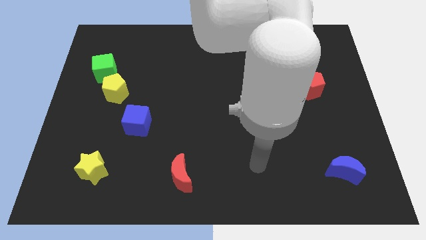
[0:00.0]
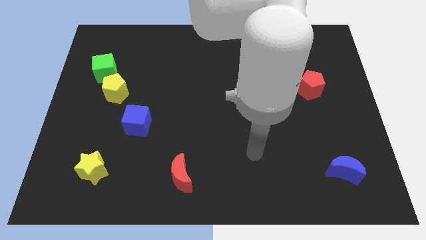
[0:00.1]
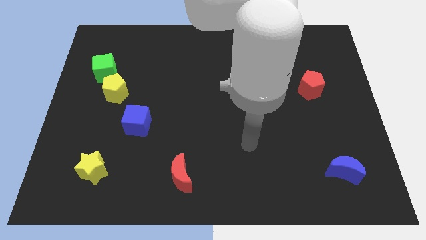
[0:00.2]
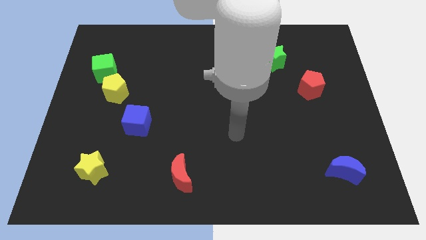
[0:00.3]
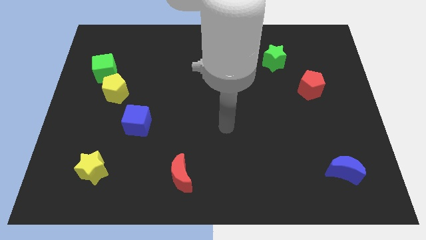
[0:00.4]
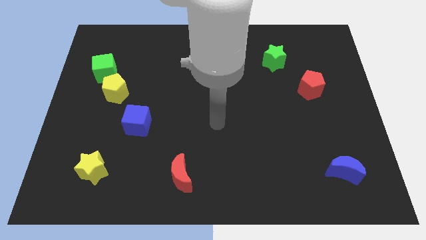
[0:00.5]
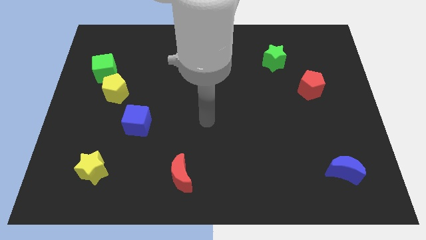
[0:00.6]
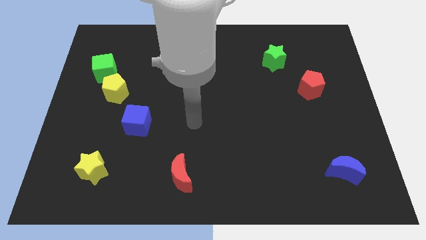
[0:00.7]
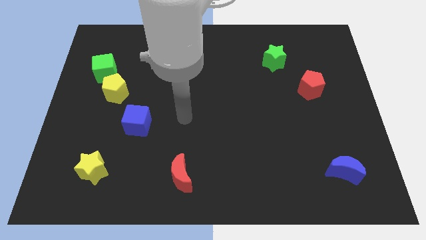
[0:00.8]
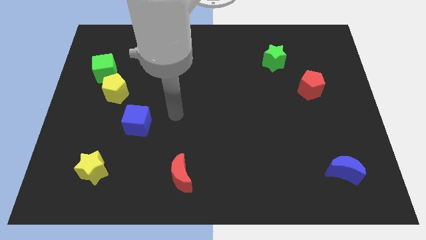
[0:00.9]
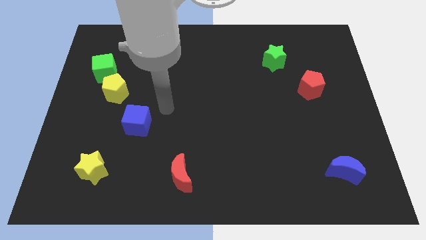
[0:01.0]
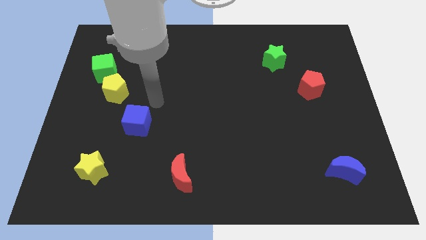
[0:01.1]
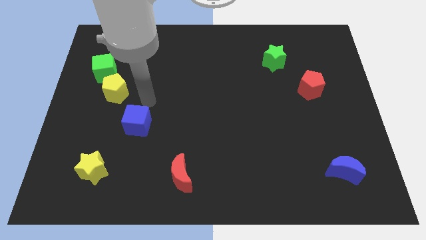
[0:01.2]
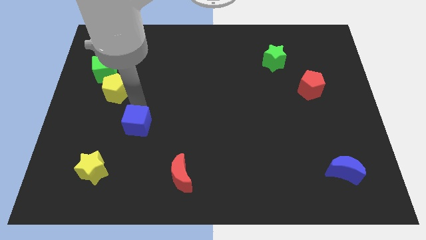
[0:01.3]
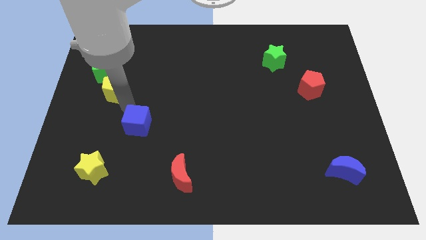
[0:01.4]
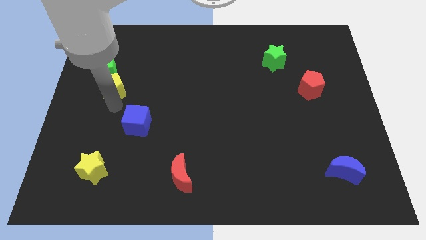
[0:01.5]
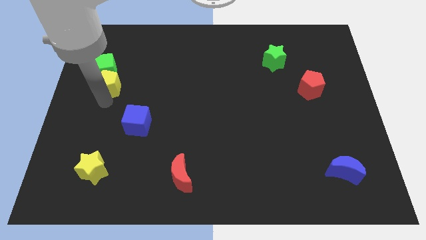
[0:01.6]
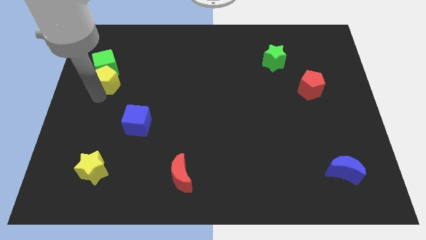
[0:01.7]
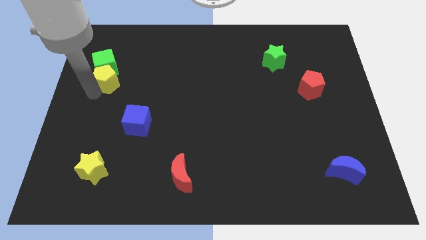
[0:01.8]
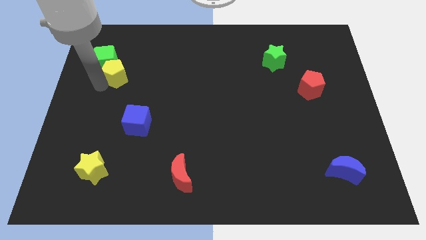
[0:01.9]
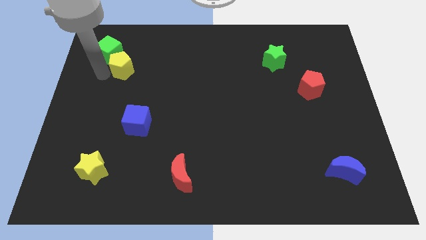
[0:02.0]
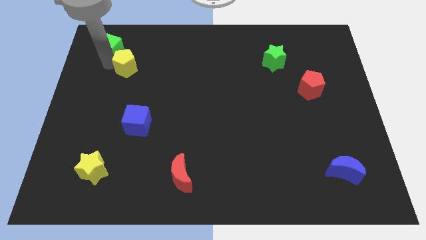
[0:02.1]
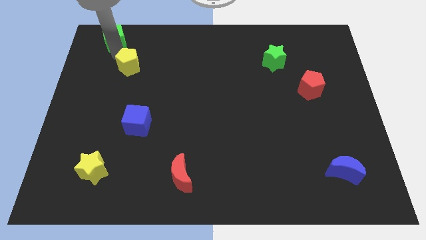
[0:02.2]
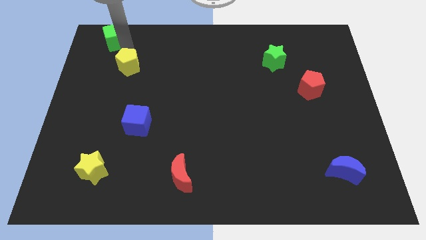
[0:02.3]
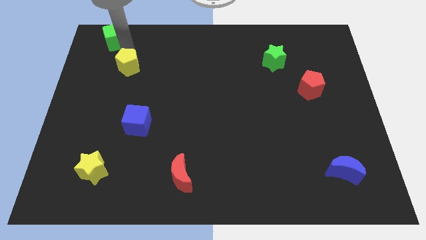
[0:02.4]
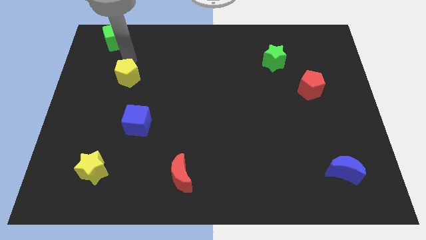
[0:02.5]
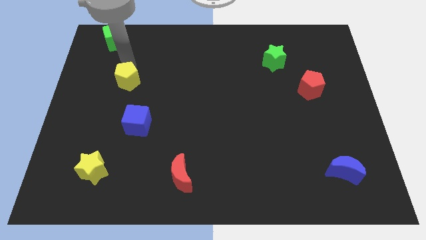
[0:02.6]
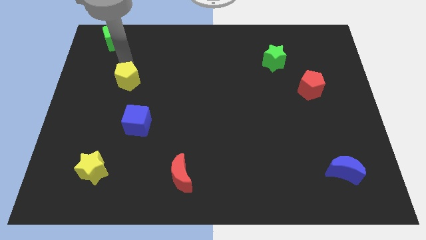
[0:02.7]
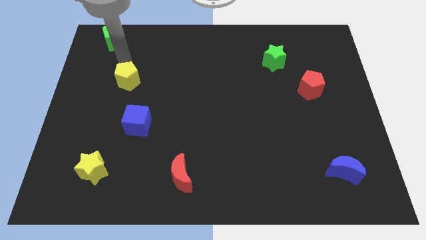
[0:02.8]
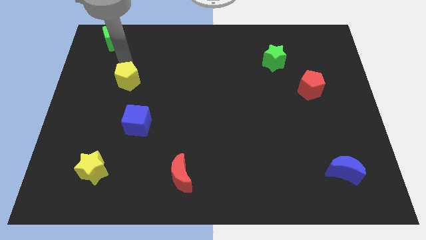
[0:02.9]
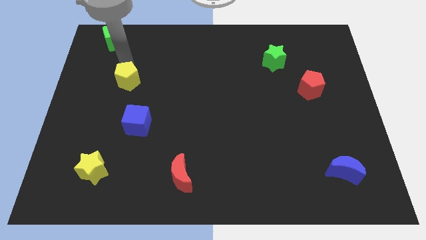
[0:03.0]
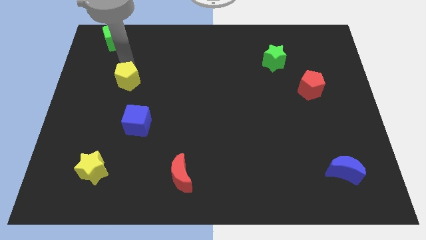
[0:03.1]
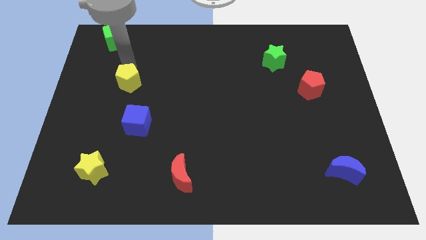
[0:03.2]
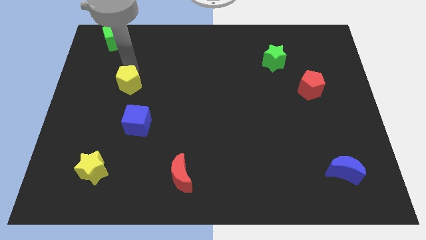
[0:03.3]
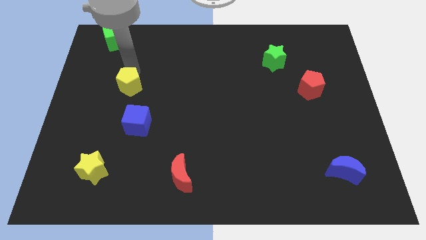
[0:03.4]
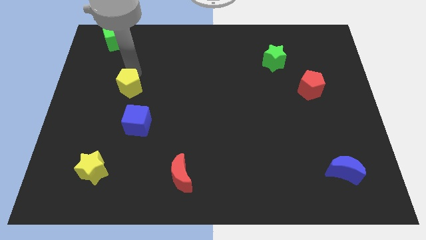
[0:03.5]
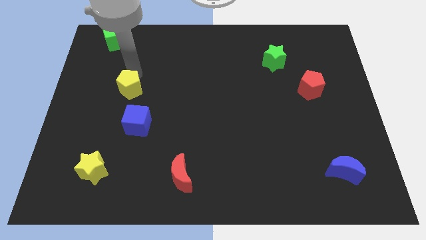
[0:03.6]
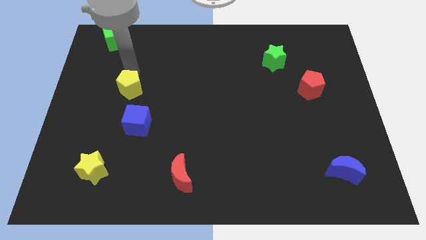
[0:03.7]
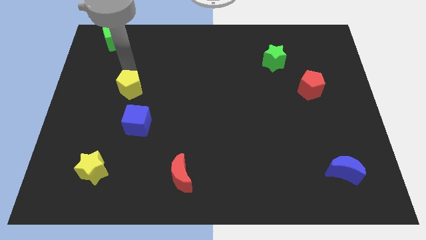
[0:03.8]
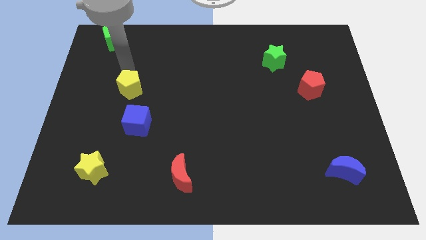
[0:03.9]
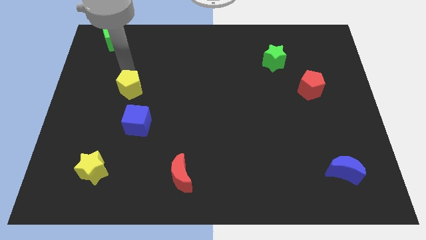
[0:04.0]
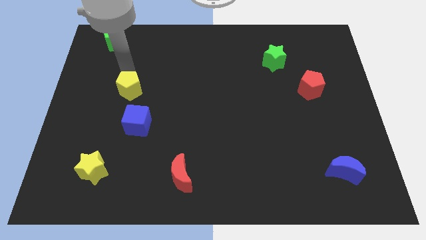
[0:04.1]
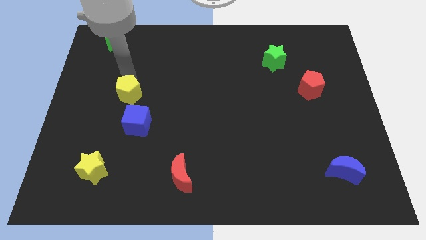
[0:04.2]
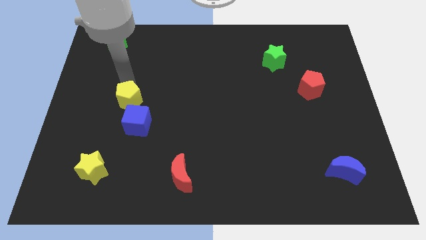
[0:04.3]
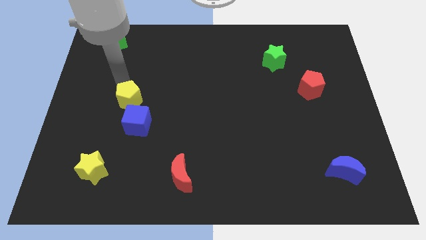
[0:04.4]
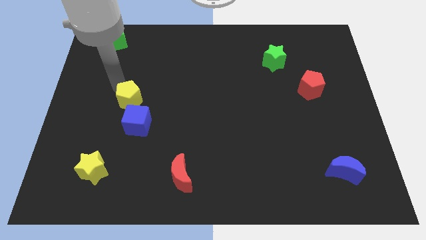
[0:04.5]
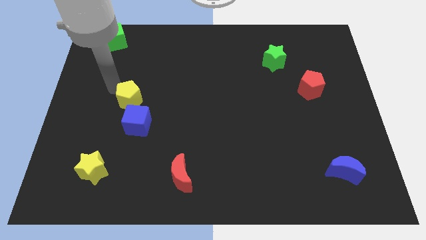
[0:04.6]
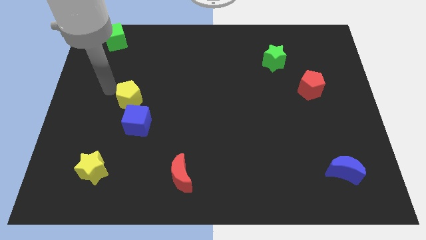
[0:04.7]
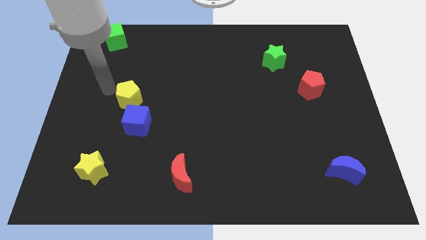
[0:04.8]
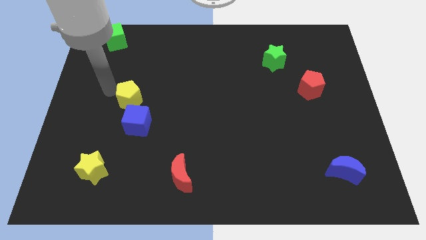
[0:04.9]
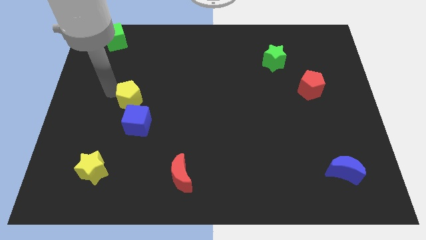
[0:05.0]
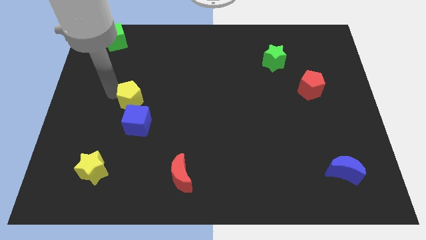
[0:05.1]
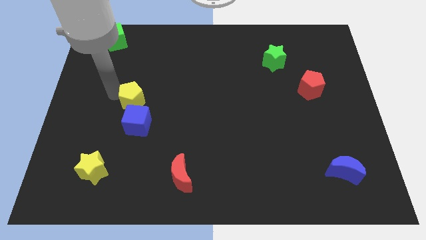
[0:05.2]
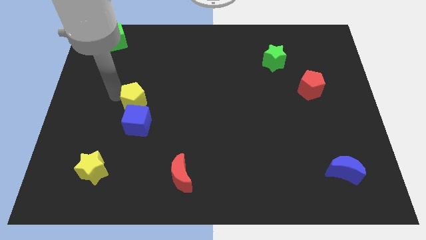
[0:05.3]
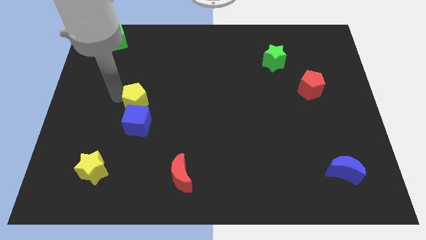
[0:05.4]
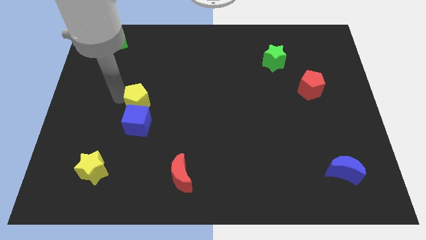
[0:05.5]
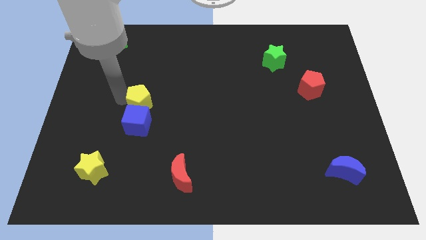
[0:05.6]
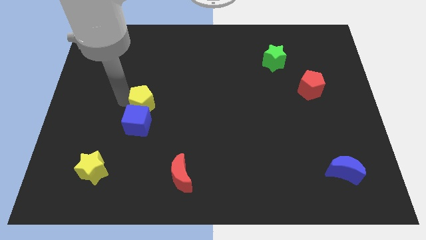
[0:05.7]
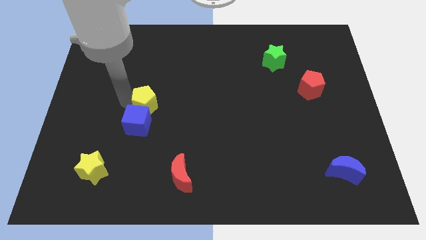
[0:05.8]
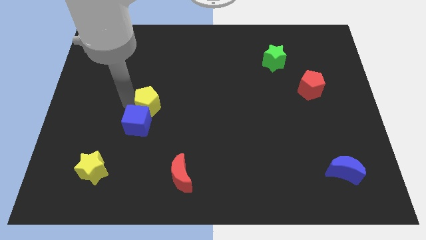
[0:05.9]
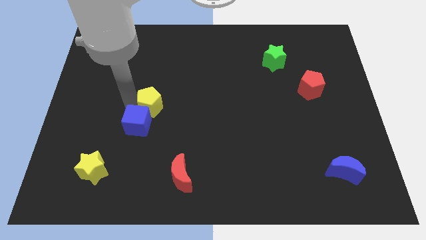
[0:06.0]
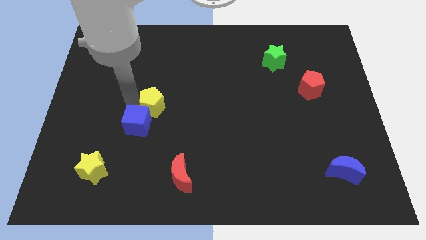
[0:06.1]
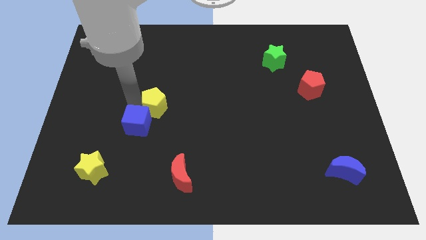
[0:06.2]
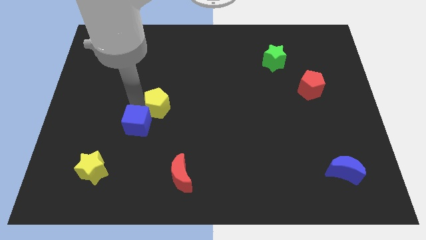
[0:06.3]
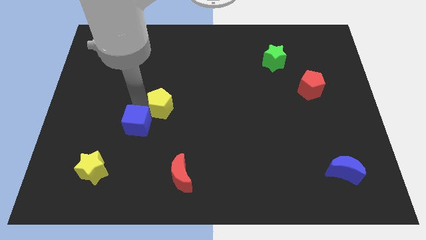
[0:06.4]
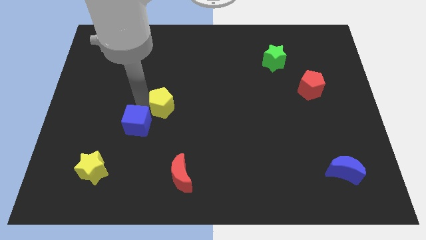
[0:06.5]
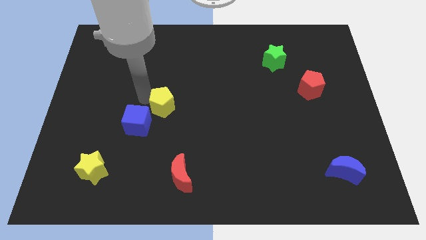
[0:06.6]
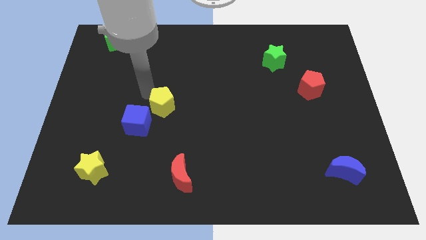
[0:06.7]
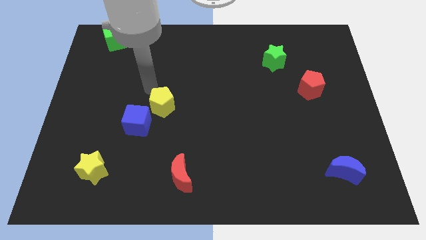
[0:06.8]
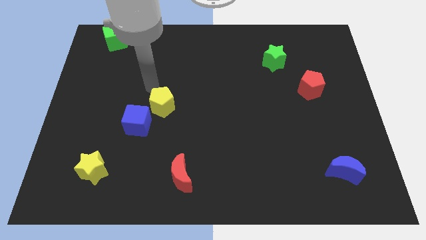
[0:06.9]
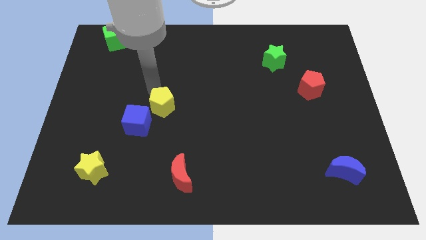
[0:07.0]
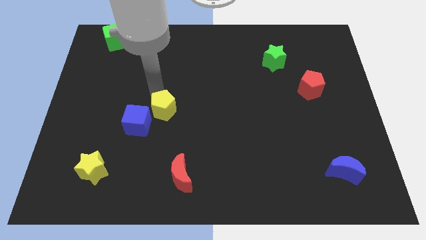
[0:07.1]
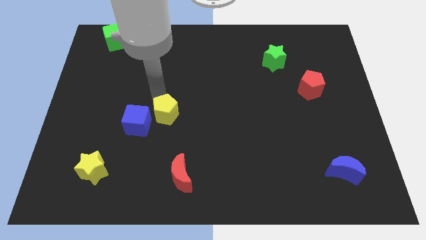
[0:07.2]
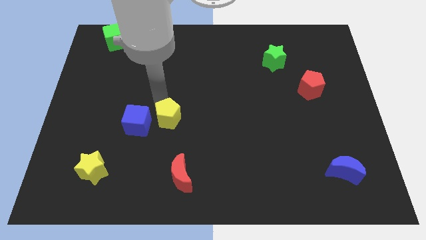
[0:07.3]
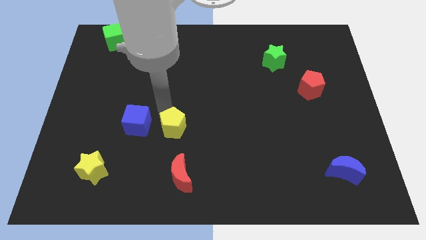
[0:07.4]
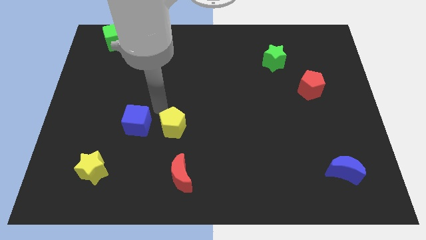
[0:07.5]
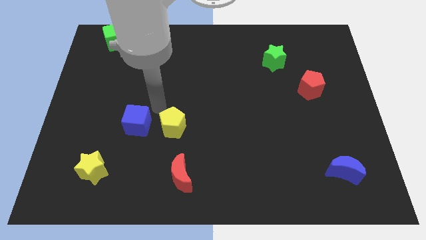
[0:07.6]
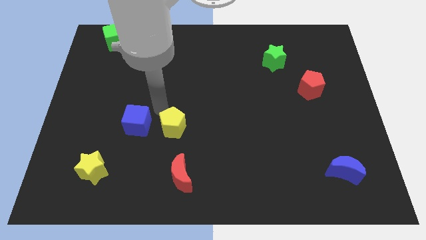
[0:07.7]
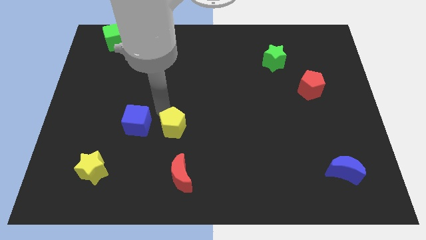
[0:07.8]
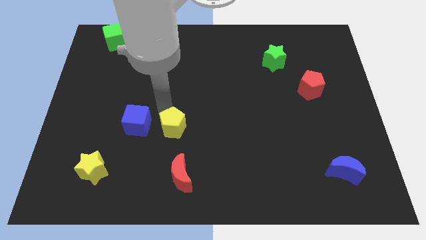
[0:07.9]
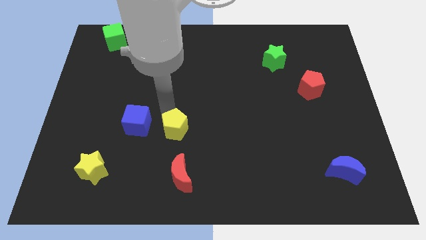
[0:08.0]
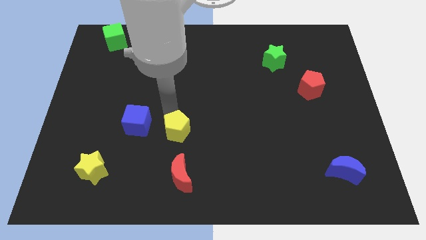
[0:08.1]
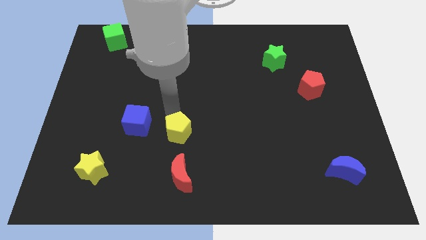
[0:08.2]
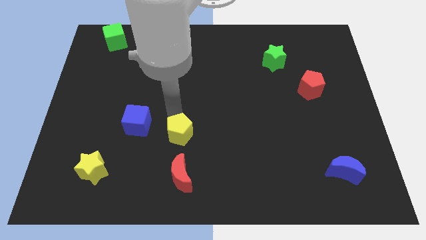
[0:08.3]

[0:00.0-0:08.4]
slide the yellow pentagon down and to the right
